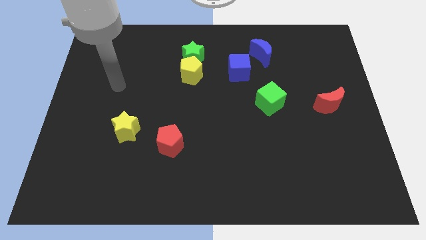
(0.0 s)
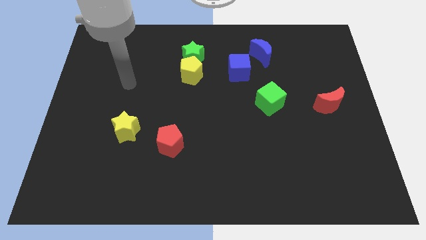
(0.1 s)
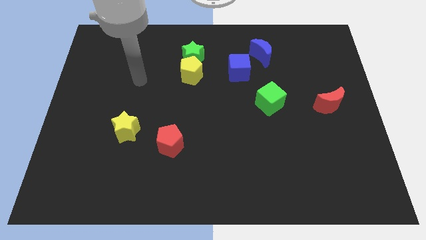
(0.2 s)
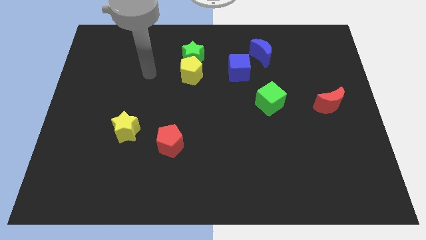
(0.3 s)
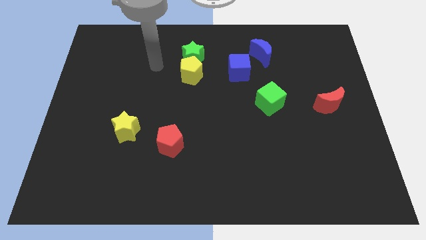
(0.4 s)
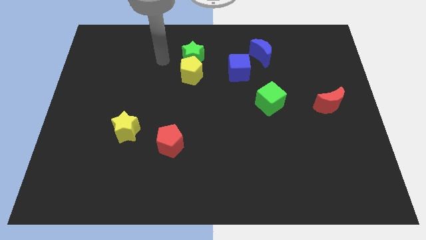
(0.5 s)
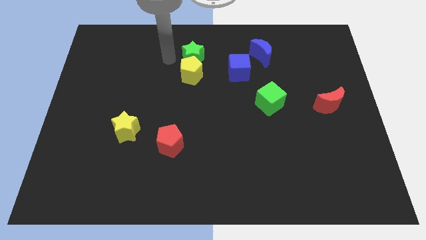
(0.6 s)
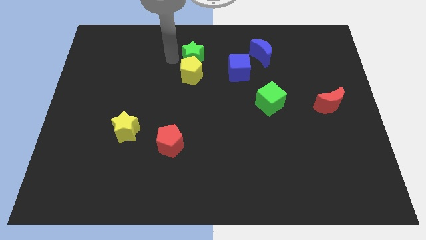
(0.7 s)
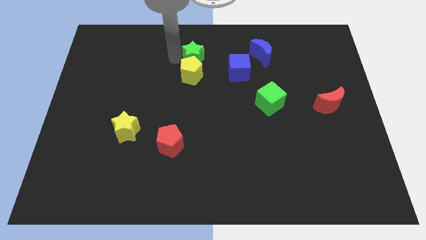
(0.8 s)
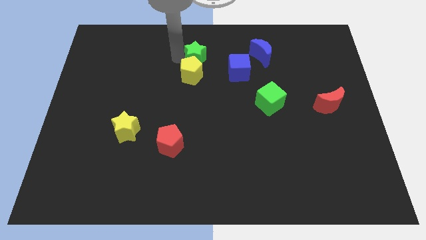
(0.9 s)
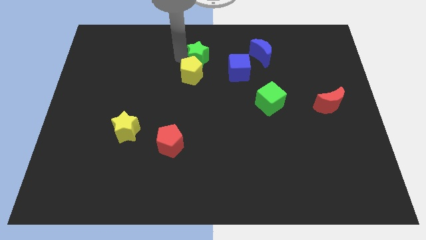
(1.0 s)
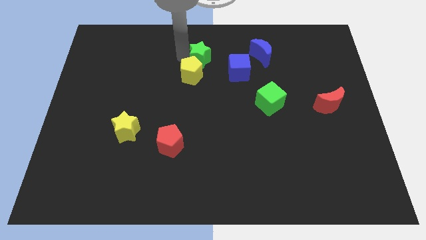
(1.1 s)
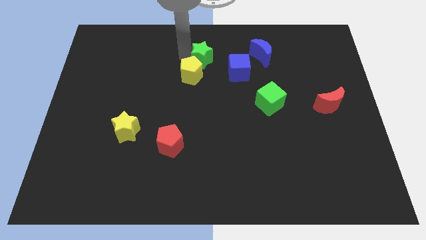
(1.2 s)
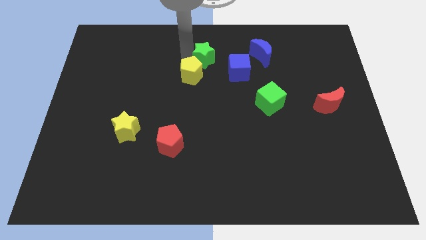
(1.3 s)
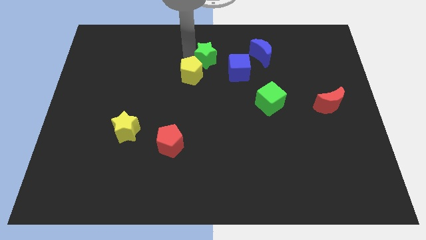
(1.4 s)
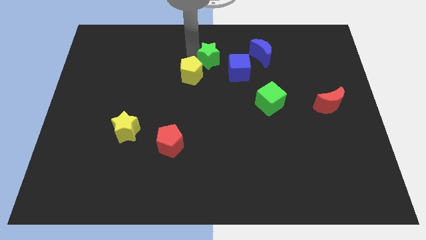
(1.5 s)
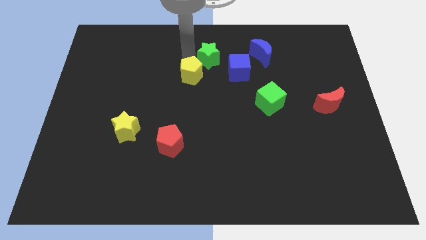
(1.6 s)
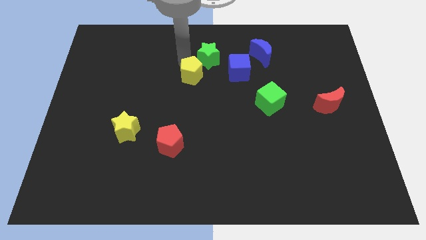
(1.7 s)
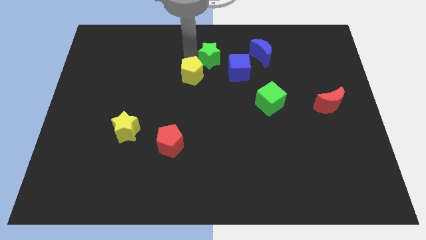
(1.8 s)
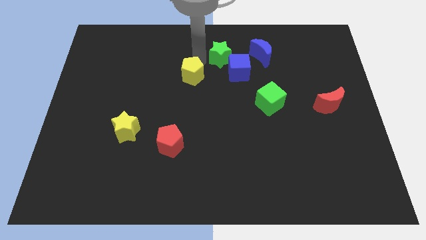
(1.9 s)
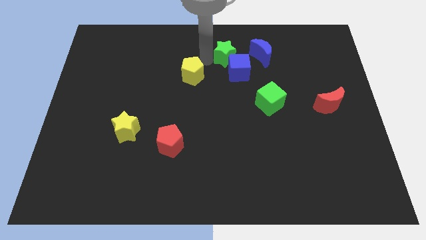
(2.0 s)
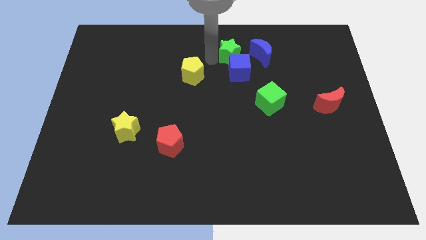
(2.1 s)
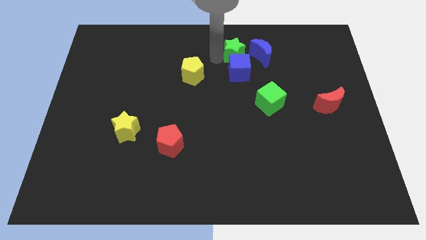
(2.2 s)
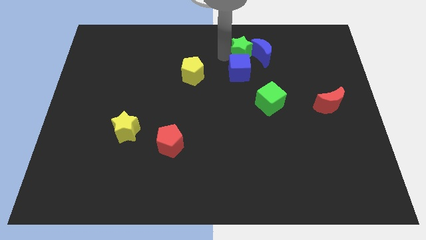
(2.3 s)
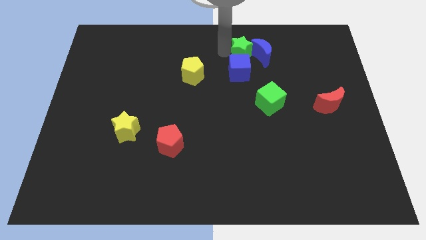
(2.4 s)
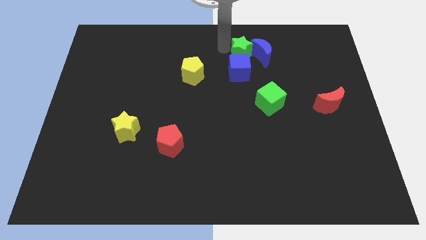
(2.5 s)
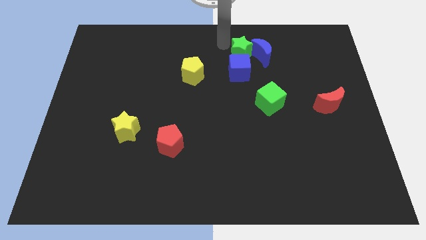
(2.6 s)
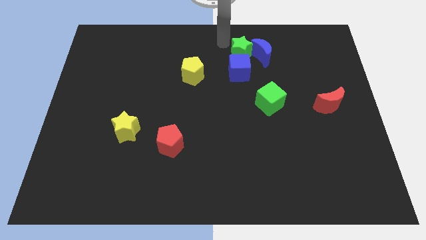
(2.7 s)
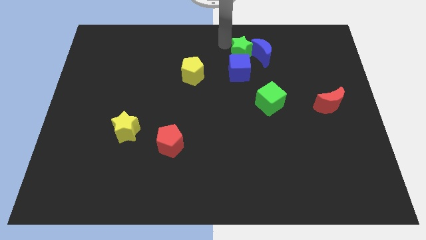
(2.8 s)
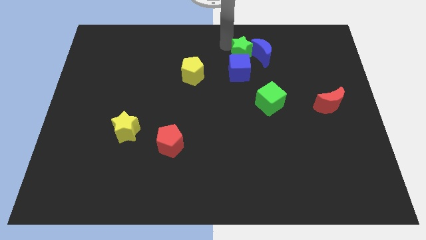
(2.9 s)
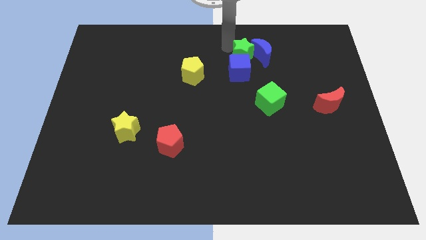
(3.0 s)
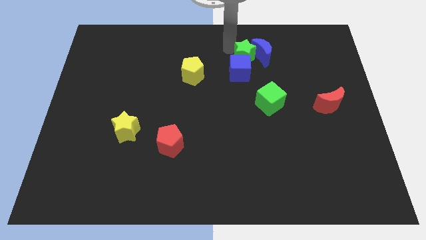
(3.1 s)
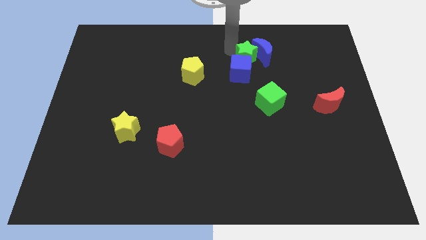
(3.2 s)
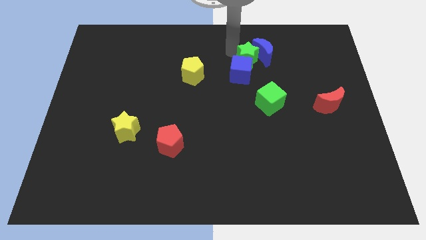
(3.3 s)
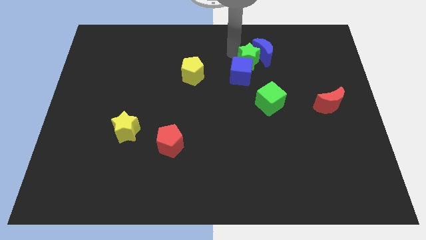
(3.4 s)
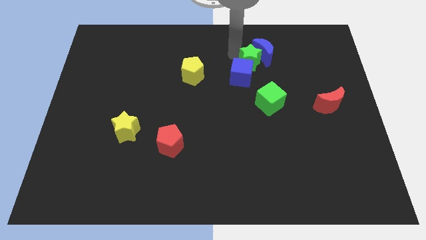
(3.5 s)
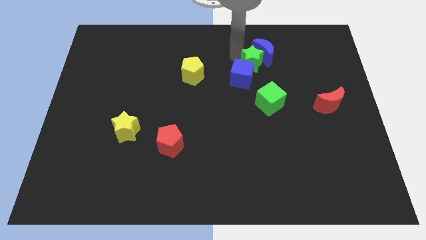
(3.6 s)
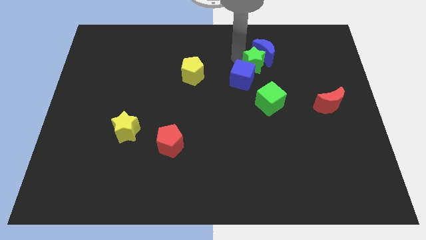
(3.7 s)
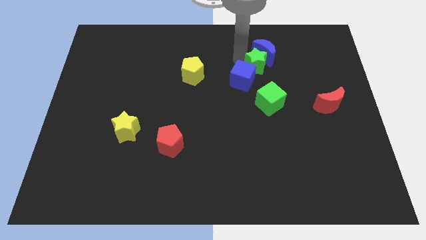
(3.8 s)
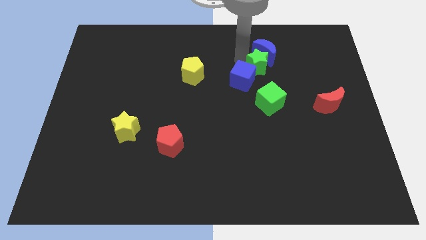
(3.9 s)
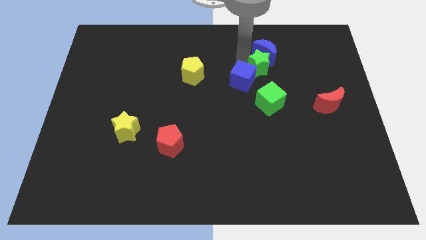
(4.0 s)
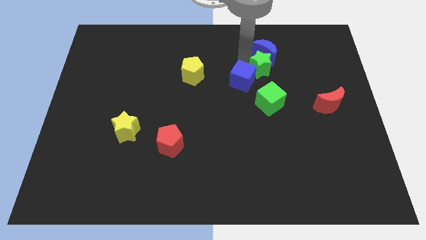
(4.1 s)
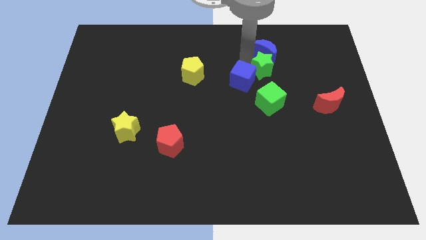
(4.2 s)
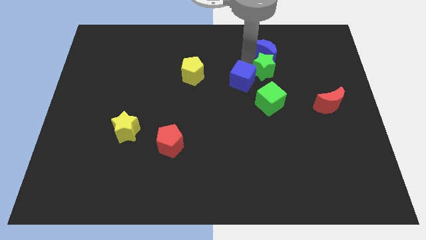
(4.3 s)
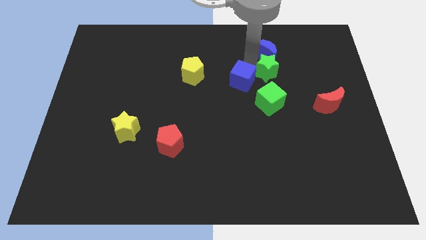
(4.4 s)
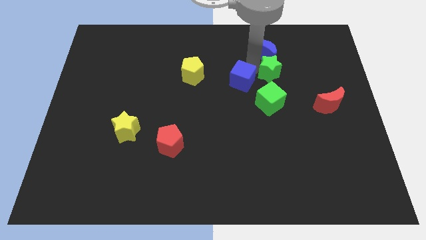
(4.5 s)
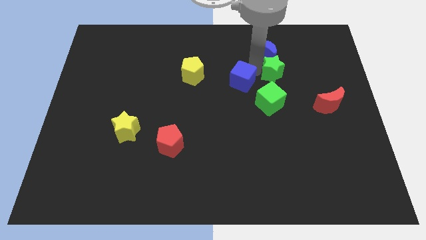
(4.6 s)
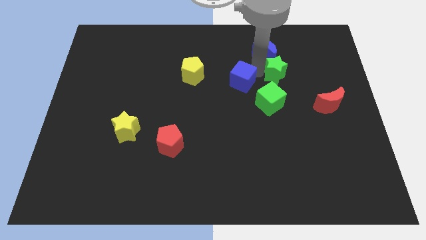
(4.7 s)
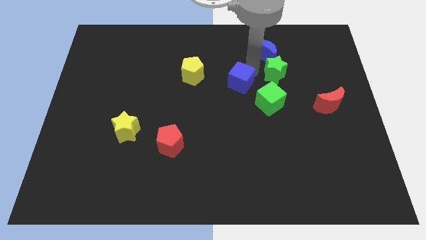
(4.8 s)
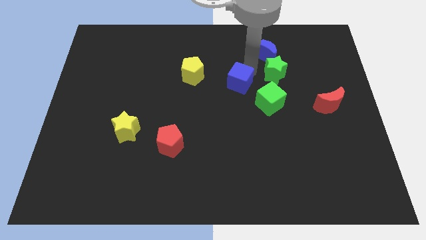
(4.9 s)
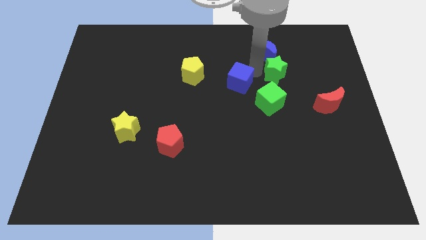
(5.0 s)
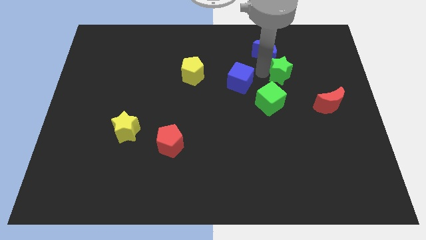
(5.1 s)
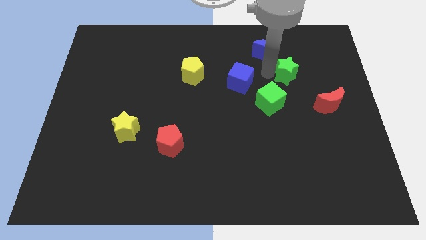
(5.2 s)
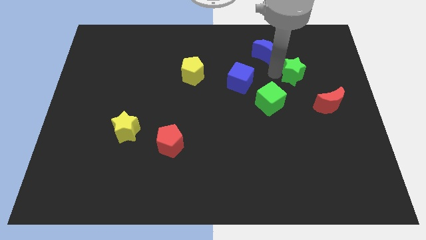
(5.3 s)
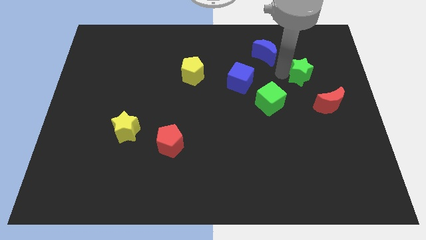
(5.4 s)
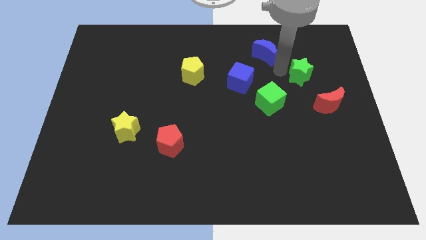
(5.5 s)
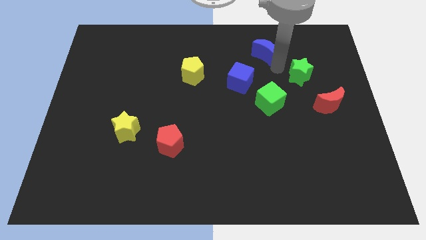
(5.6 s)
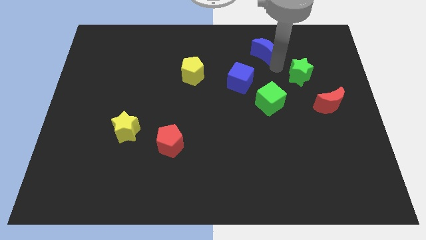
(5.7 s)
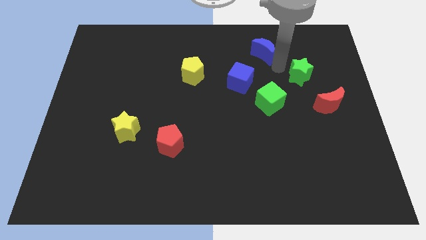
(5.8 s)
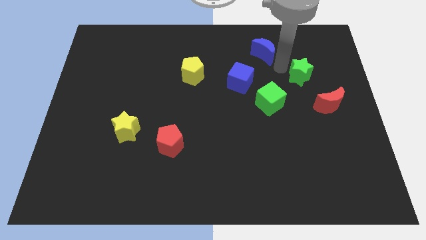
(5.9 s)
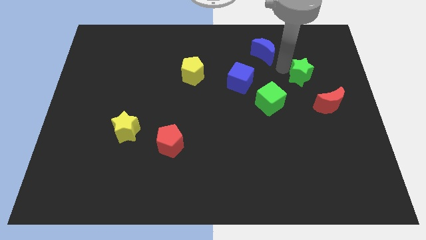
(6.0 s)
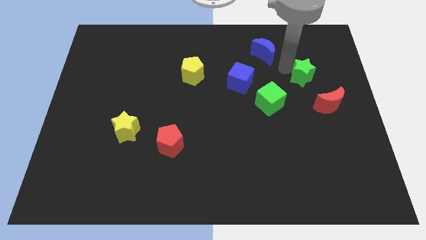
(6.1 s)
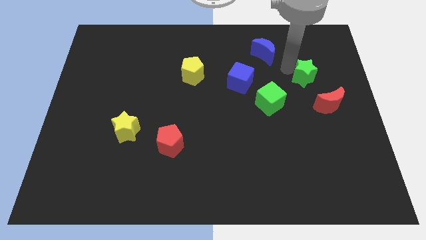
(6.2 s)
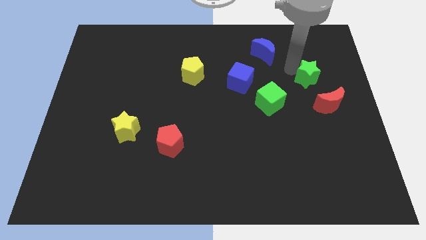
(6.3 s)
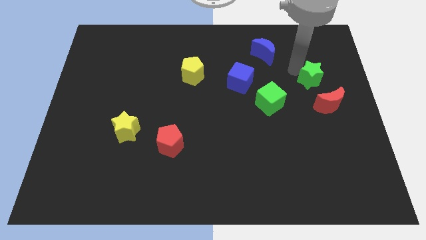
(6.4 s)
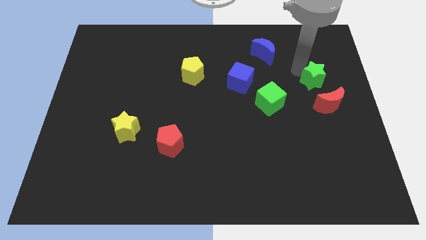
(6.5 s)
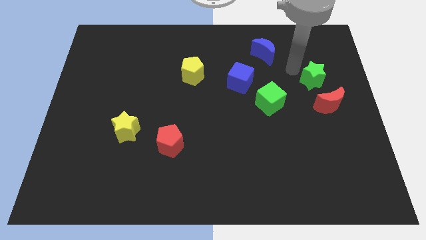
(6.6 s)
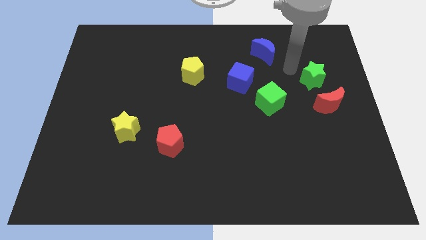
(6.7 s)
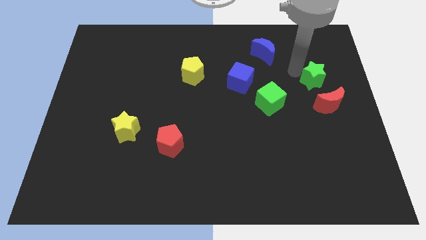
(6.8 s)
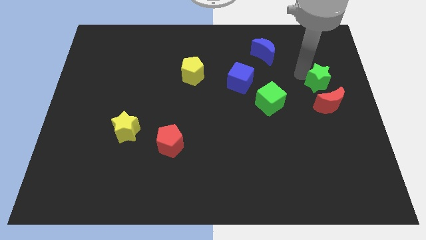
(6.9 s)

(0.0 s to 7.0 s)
push the green star to the center right
